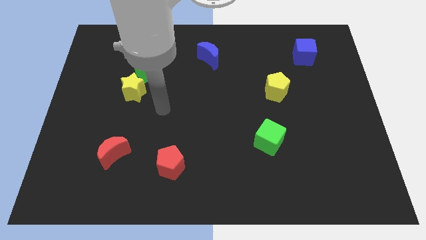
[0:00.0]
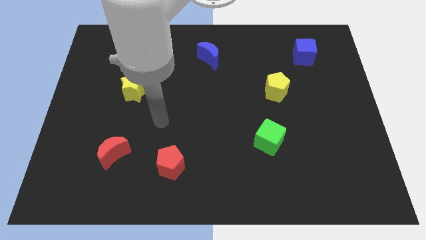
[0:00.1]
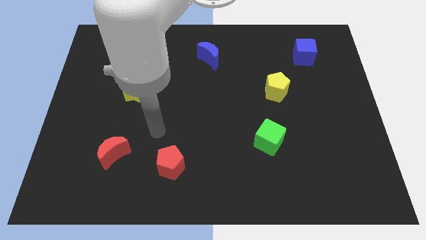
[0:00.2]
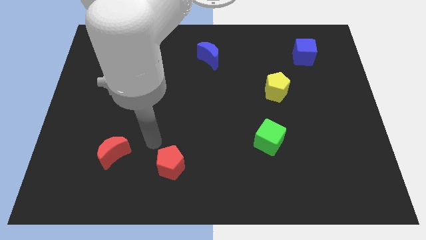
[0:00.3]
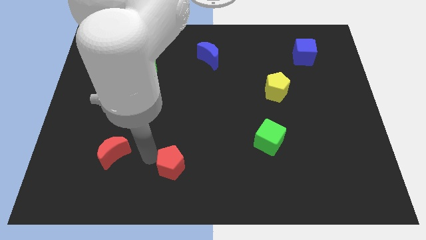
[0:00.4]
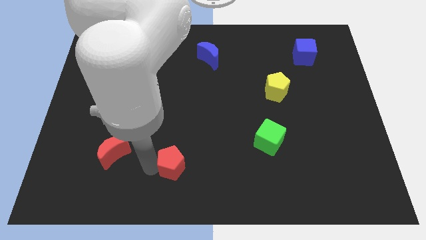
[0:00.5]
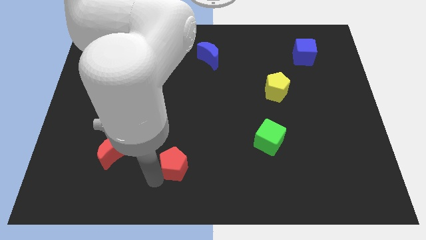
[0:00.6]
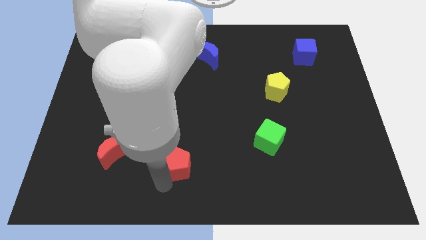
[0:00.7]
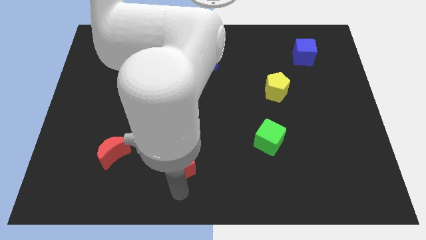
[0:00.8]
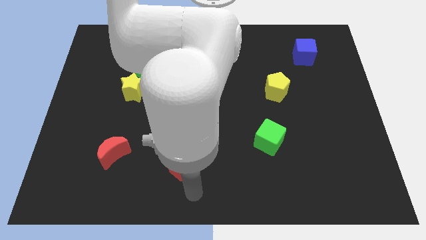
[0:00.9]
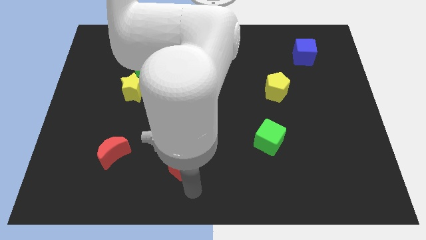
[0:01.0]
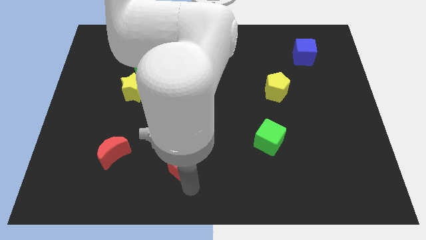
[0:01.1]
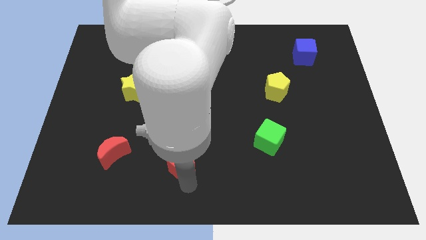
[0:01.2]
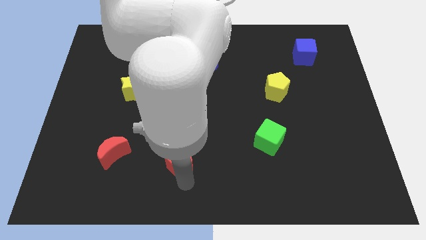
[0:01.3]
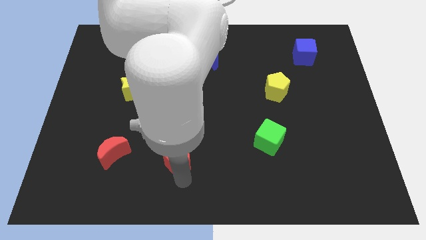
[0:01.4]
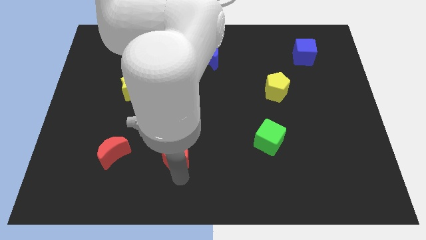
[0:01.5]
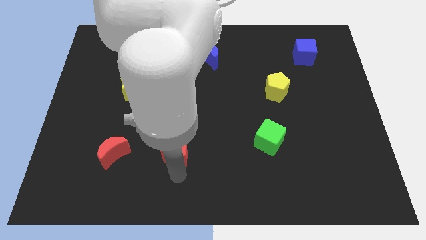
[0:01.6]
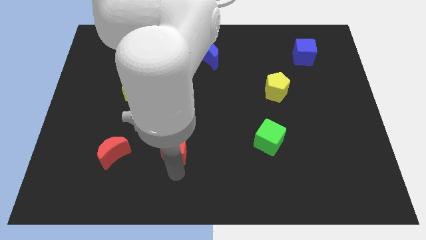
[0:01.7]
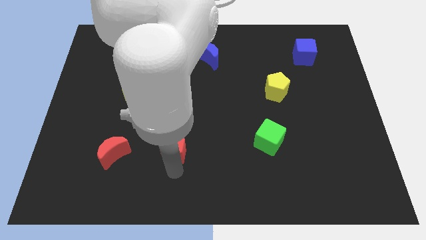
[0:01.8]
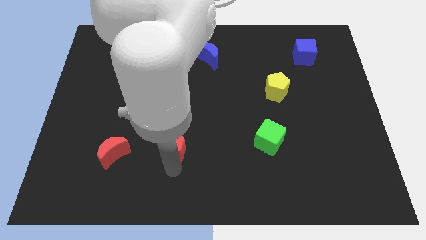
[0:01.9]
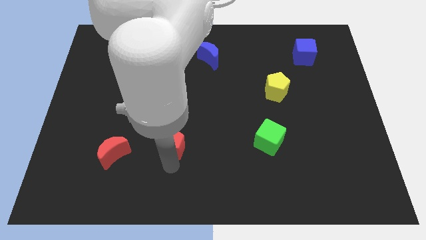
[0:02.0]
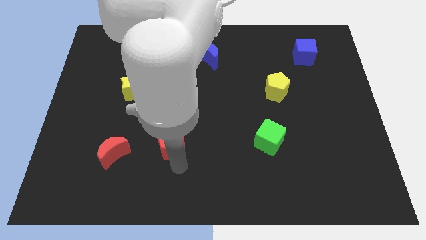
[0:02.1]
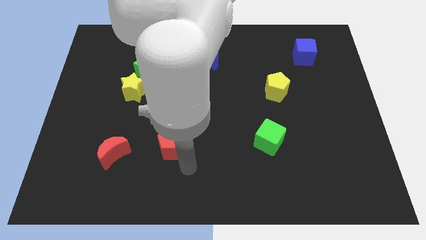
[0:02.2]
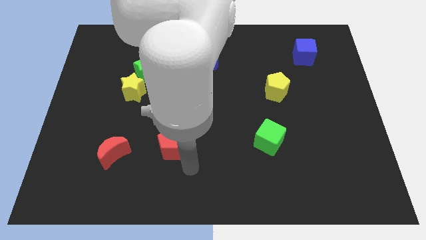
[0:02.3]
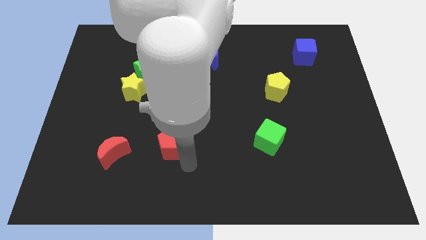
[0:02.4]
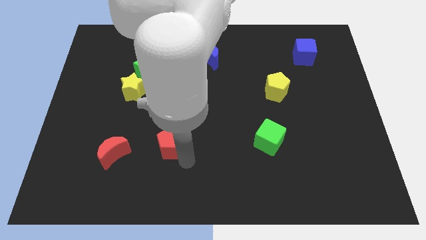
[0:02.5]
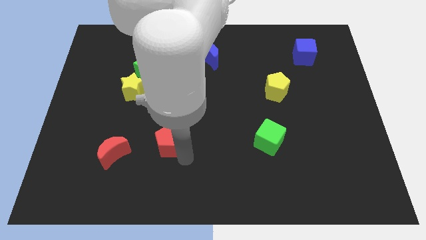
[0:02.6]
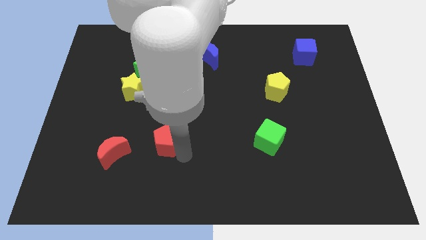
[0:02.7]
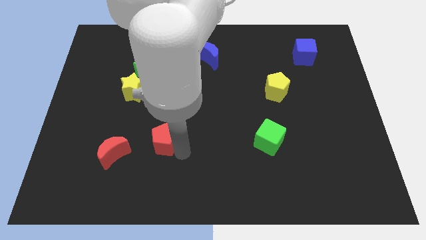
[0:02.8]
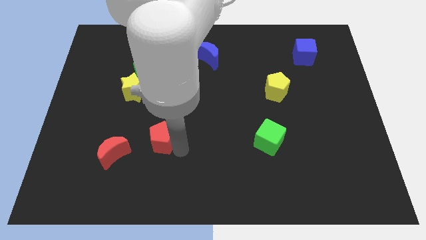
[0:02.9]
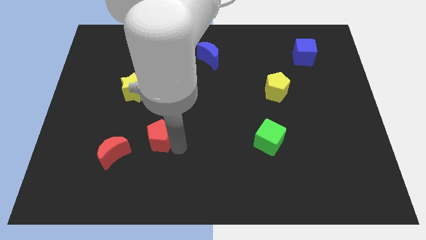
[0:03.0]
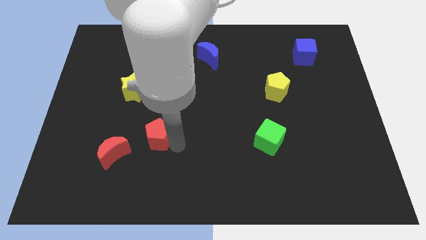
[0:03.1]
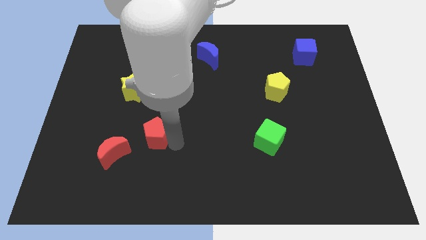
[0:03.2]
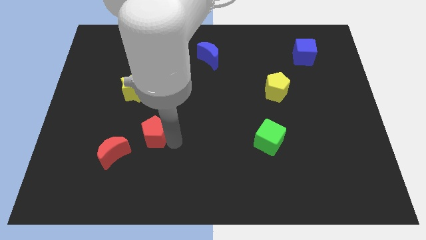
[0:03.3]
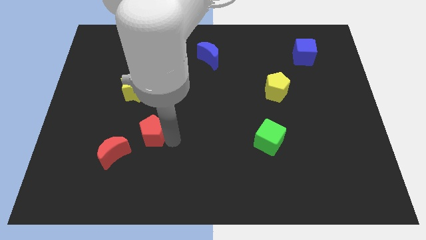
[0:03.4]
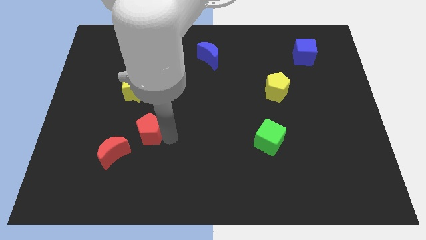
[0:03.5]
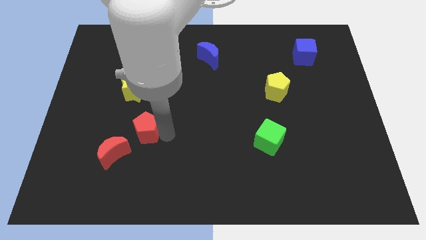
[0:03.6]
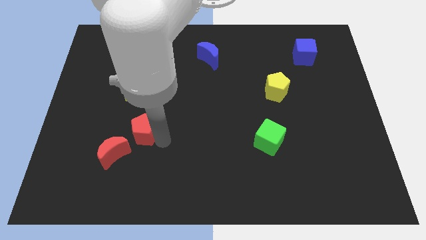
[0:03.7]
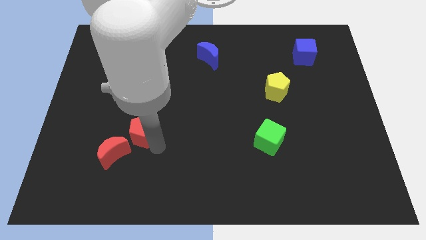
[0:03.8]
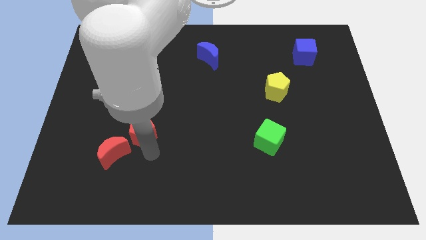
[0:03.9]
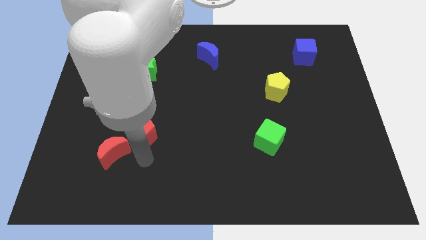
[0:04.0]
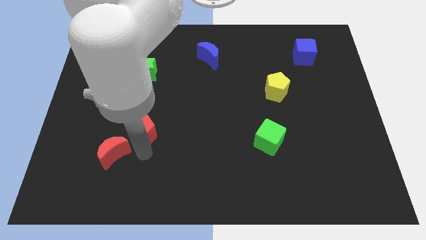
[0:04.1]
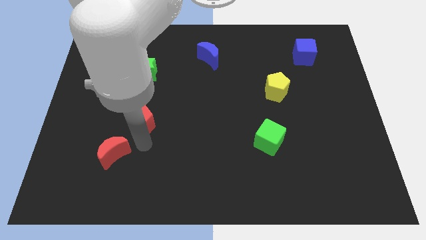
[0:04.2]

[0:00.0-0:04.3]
move the red pentagon to the bottom side of the green star

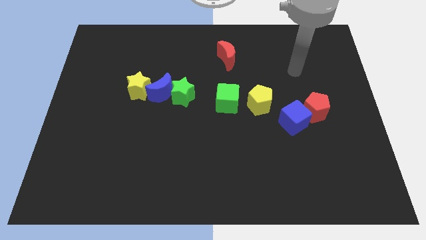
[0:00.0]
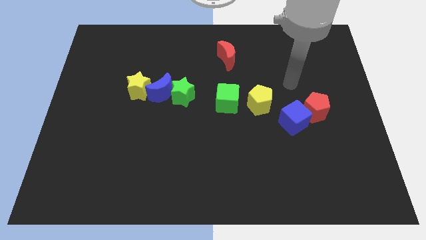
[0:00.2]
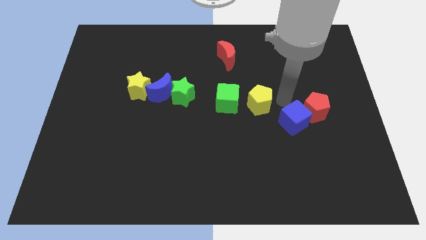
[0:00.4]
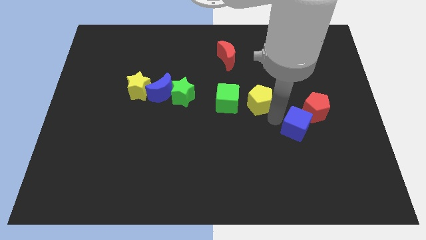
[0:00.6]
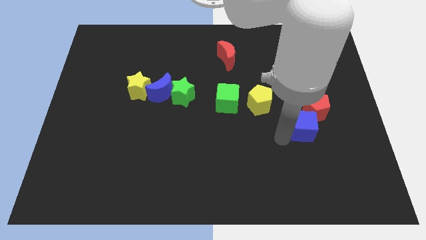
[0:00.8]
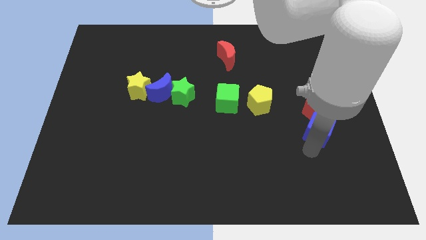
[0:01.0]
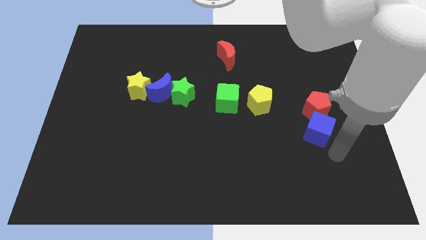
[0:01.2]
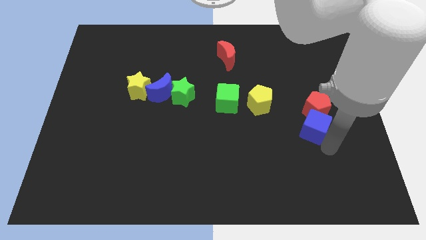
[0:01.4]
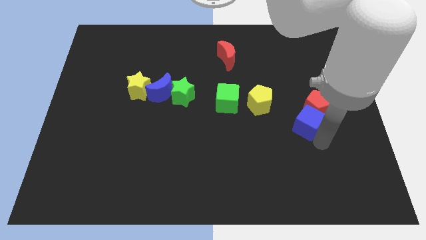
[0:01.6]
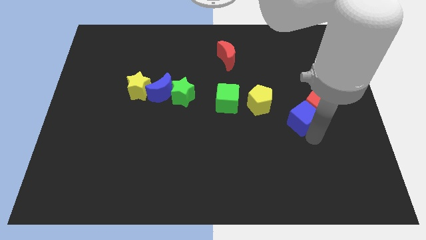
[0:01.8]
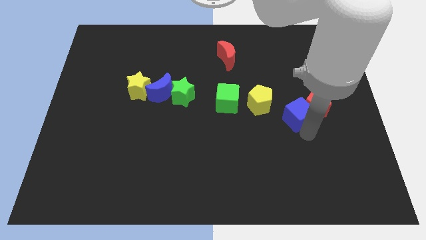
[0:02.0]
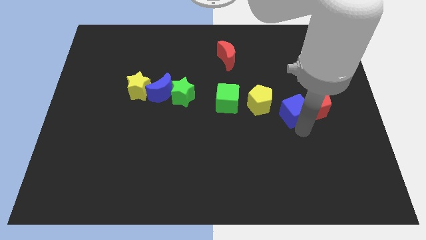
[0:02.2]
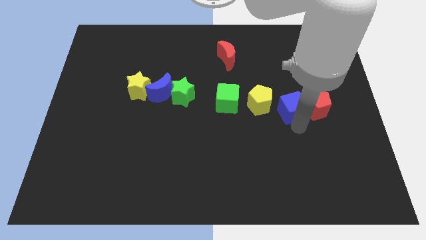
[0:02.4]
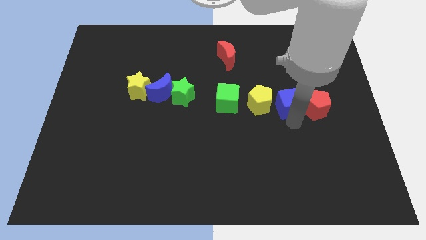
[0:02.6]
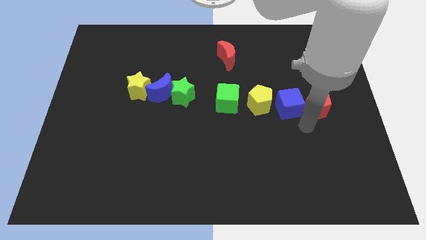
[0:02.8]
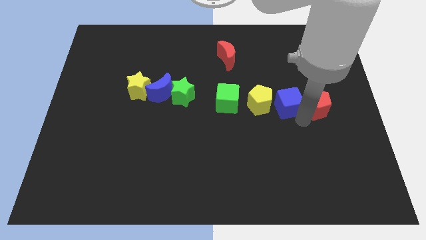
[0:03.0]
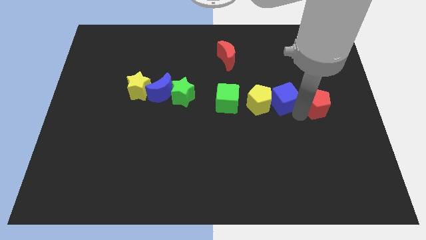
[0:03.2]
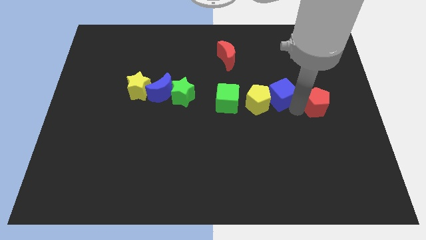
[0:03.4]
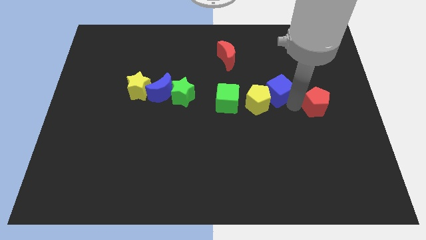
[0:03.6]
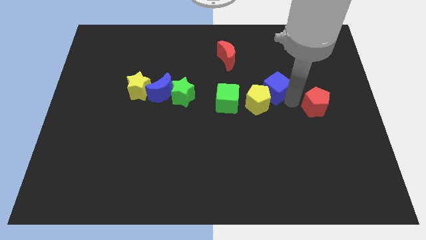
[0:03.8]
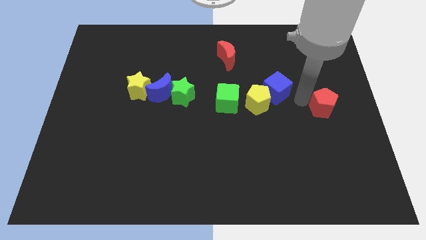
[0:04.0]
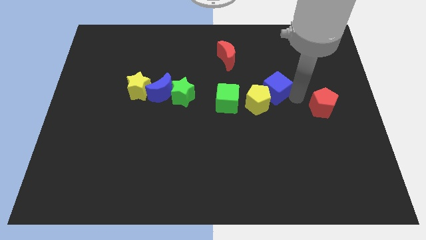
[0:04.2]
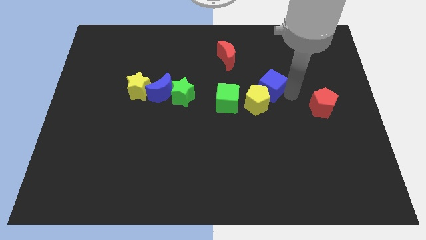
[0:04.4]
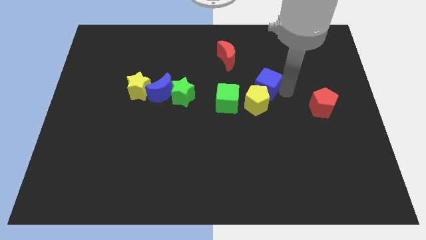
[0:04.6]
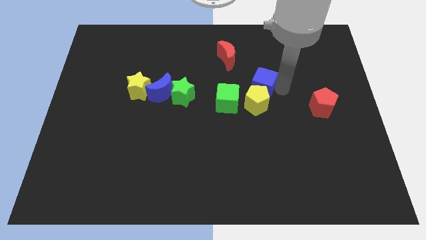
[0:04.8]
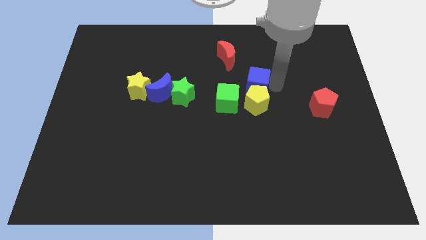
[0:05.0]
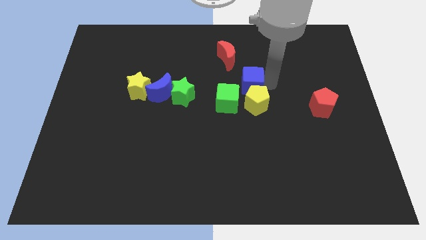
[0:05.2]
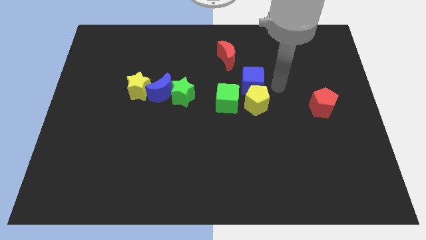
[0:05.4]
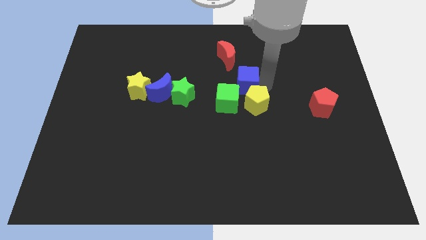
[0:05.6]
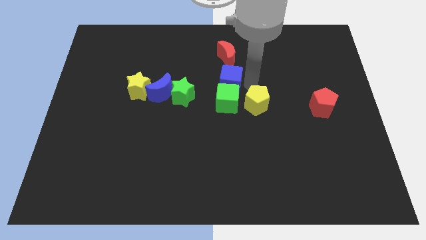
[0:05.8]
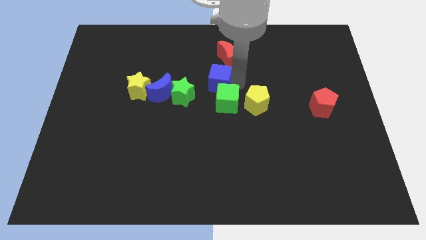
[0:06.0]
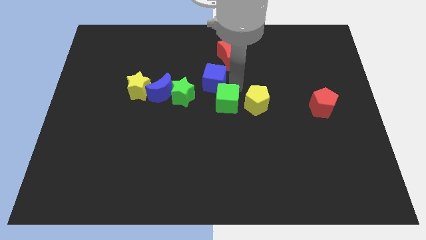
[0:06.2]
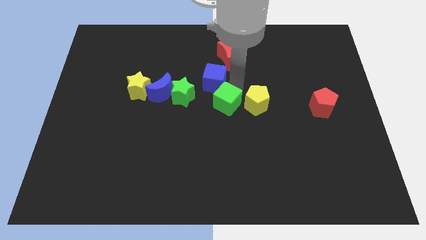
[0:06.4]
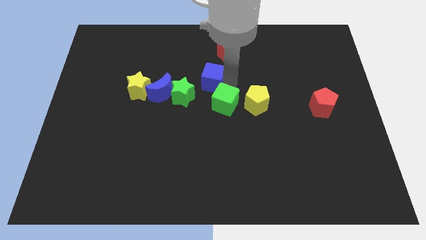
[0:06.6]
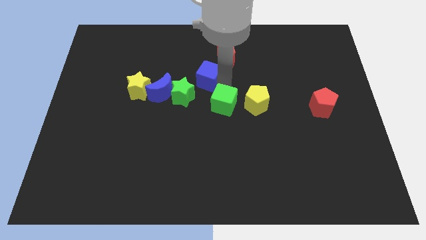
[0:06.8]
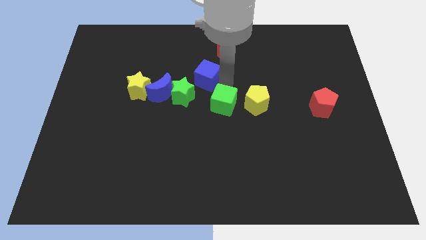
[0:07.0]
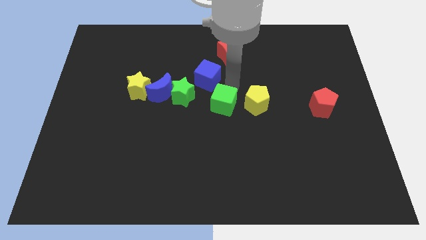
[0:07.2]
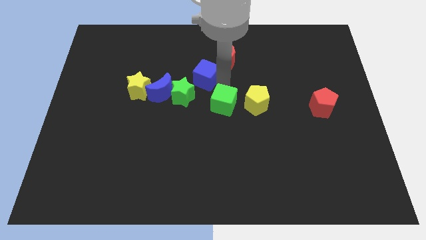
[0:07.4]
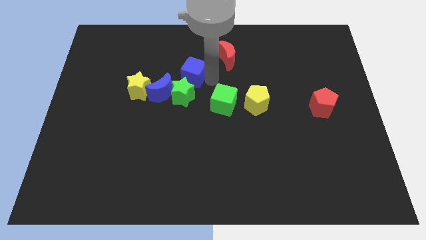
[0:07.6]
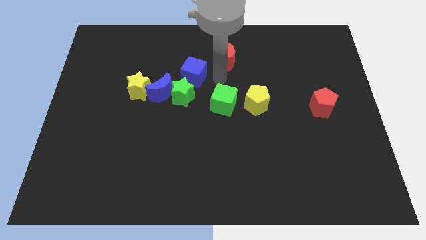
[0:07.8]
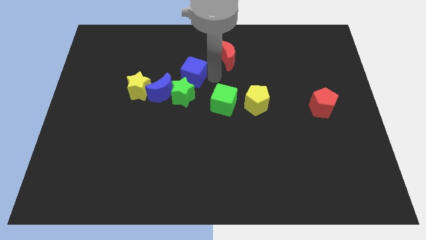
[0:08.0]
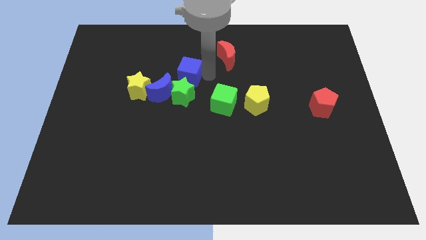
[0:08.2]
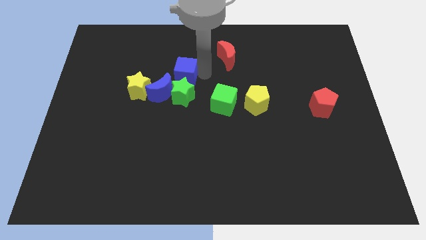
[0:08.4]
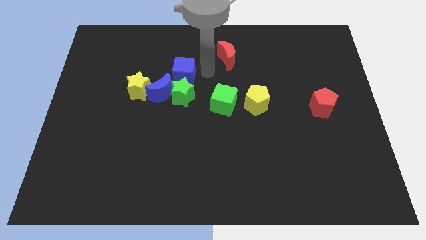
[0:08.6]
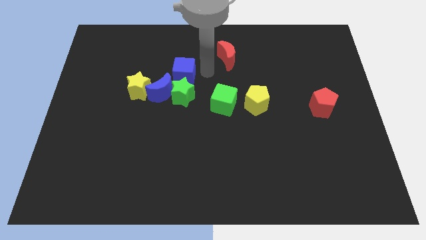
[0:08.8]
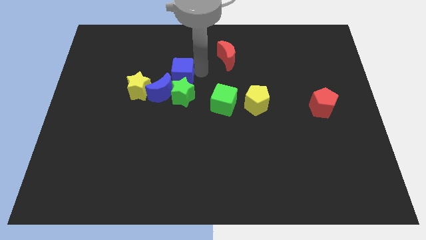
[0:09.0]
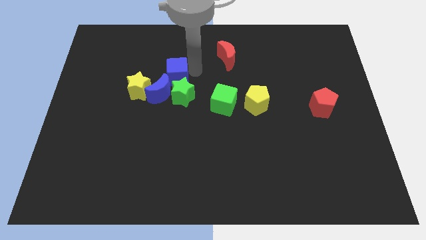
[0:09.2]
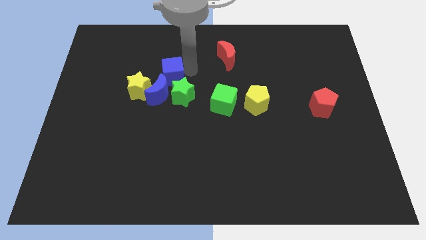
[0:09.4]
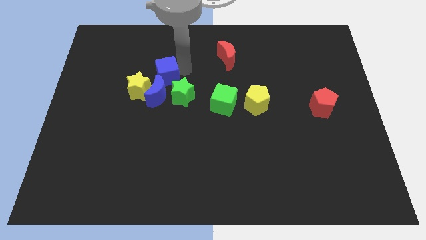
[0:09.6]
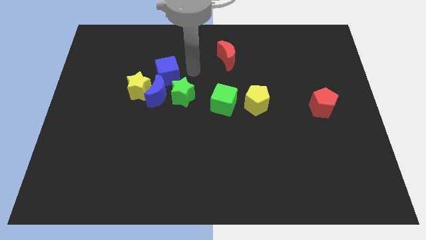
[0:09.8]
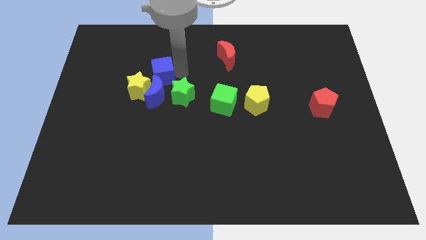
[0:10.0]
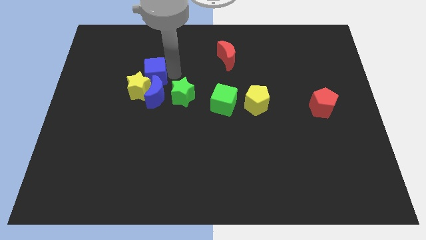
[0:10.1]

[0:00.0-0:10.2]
slide the blue cube to the top left side of the blue moon
